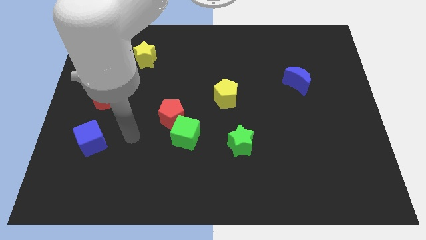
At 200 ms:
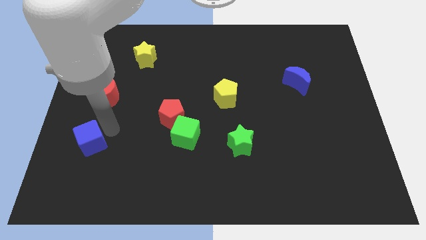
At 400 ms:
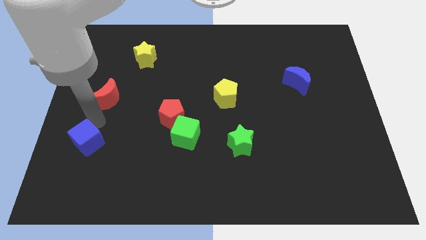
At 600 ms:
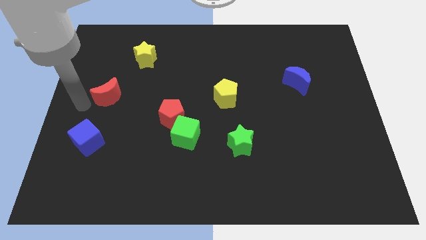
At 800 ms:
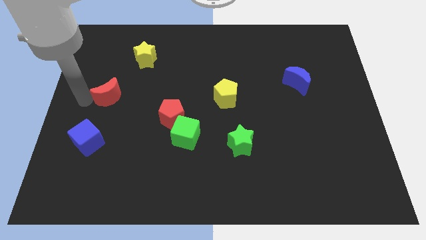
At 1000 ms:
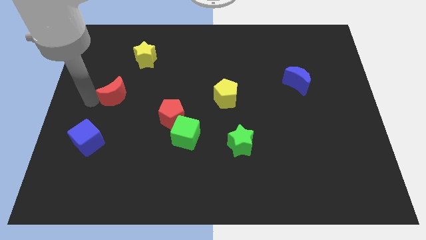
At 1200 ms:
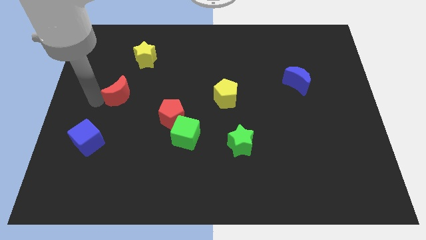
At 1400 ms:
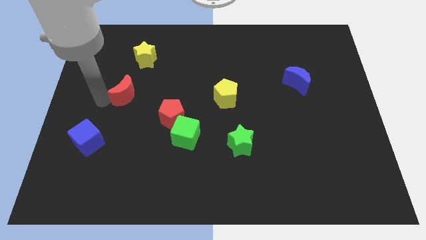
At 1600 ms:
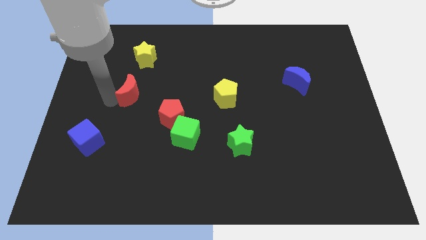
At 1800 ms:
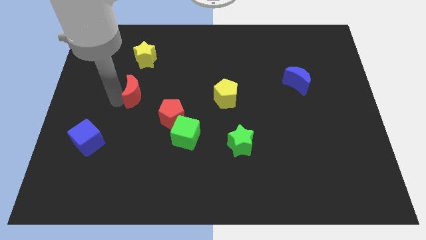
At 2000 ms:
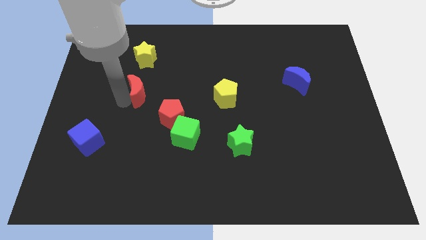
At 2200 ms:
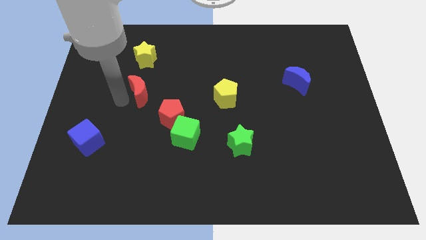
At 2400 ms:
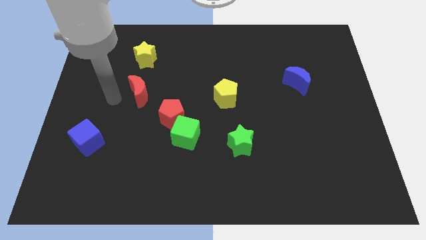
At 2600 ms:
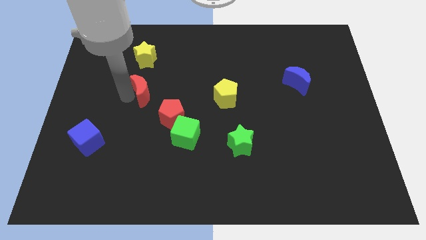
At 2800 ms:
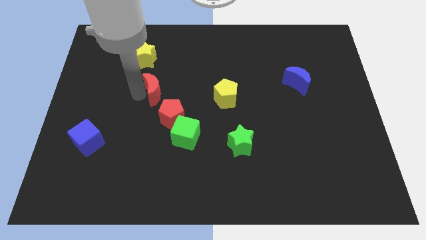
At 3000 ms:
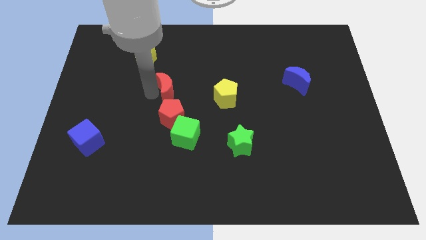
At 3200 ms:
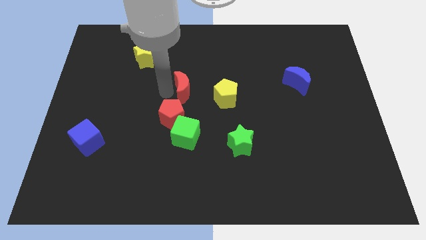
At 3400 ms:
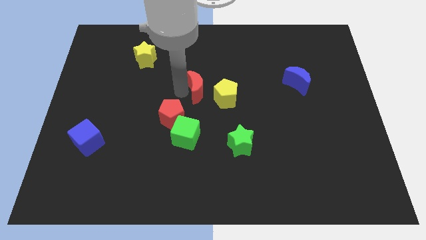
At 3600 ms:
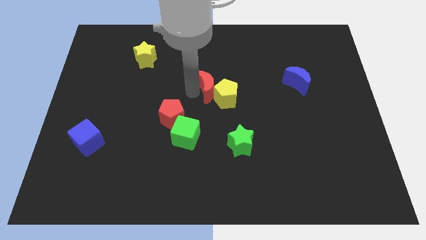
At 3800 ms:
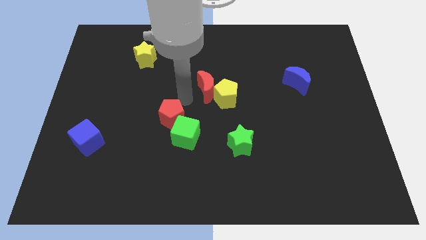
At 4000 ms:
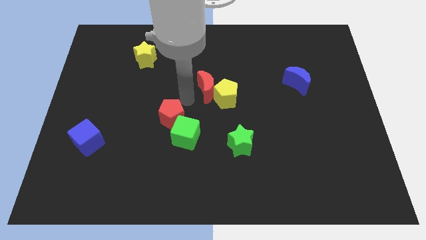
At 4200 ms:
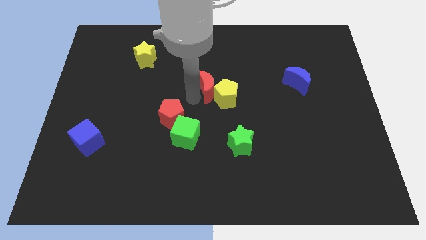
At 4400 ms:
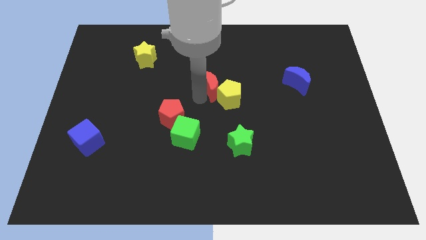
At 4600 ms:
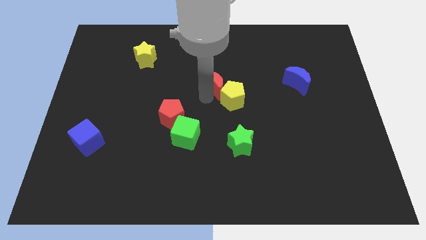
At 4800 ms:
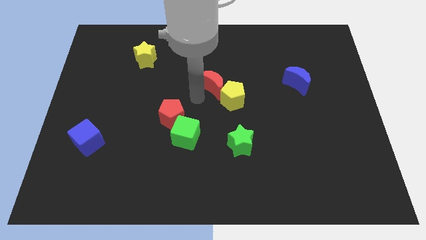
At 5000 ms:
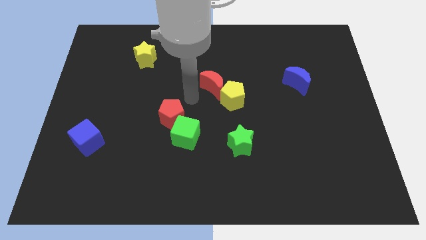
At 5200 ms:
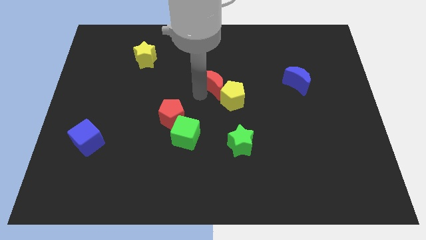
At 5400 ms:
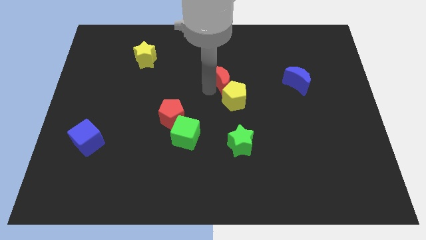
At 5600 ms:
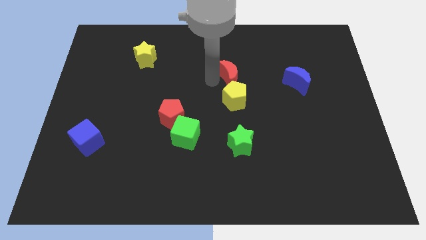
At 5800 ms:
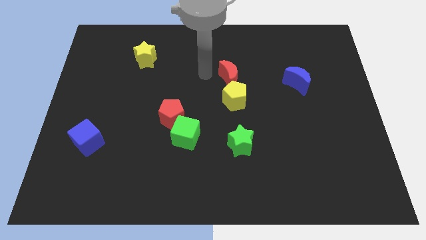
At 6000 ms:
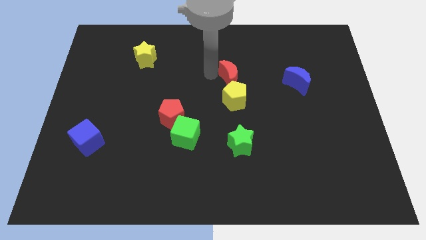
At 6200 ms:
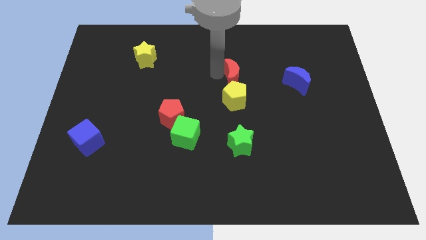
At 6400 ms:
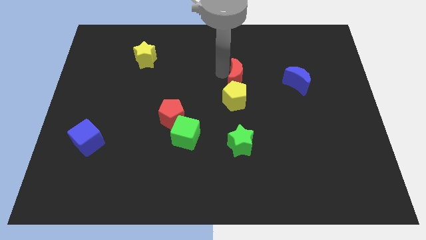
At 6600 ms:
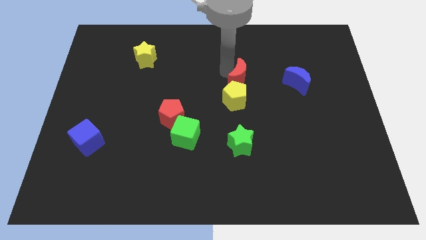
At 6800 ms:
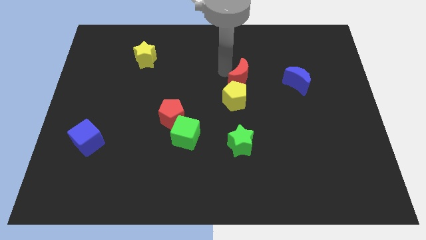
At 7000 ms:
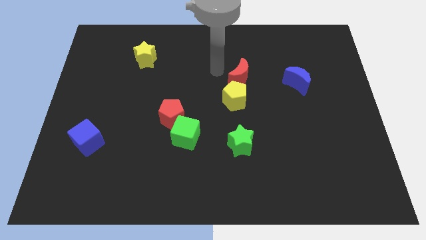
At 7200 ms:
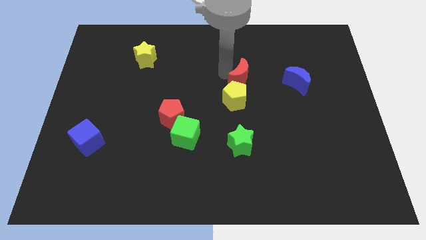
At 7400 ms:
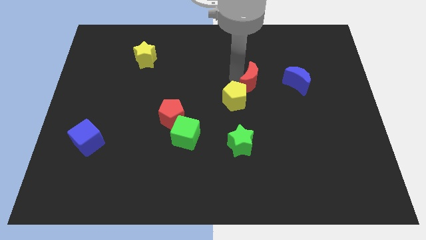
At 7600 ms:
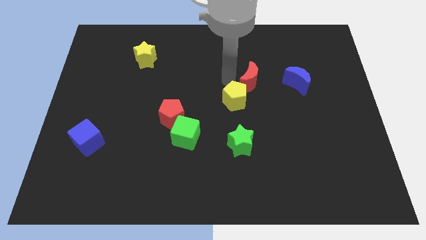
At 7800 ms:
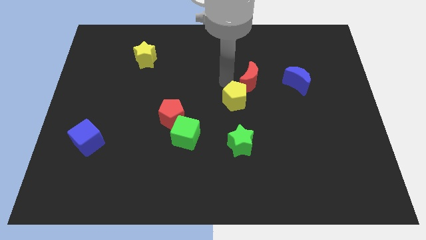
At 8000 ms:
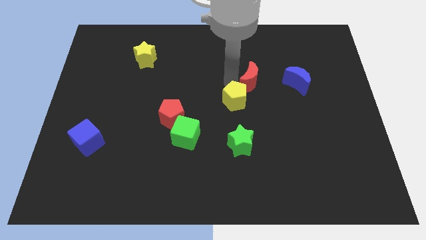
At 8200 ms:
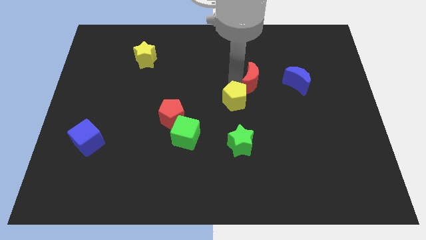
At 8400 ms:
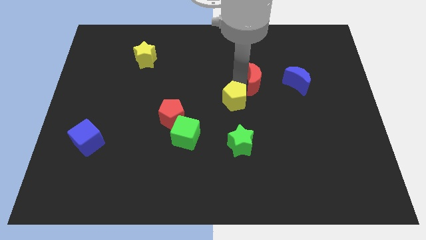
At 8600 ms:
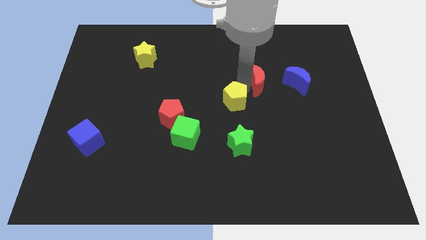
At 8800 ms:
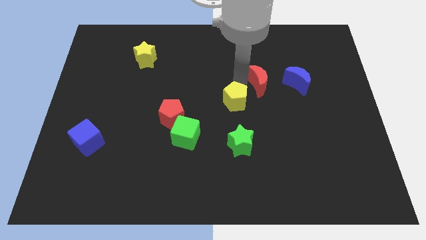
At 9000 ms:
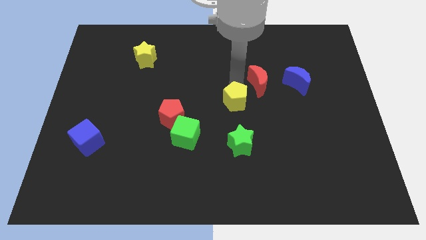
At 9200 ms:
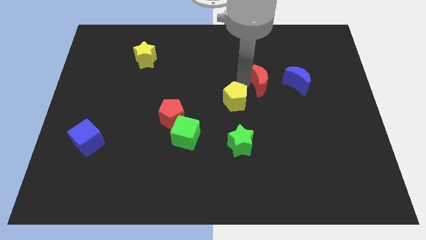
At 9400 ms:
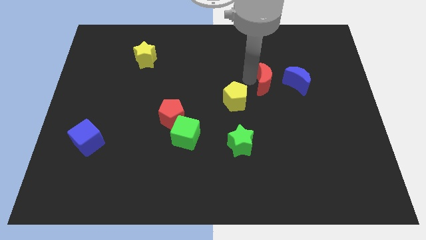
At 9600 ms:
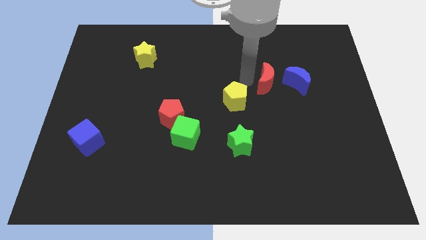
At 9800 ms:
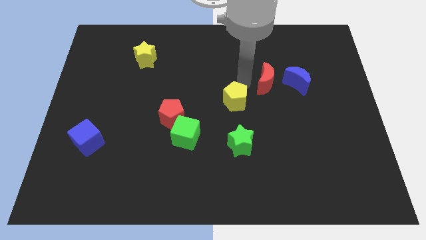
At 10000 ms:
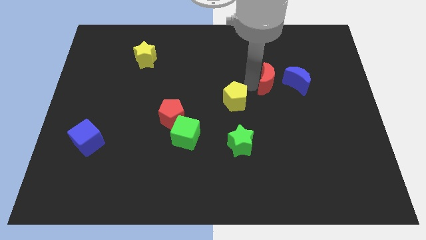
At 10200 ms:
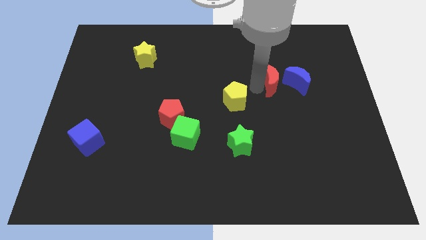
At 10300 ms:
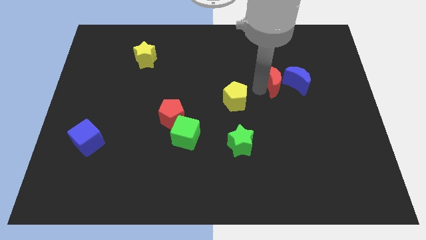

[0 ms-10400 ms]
move the red moon towards the blue moon

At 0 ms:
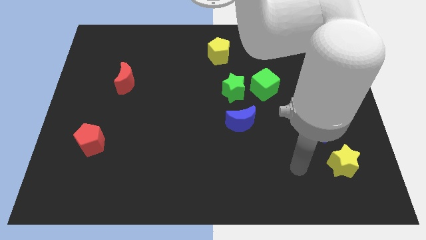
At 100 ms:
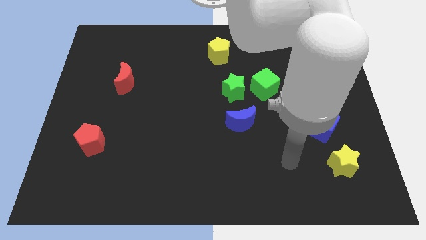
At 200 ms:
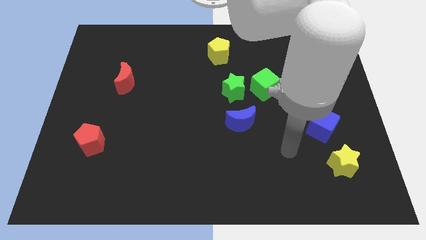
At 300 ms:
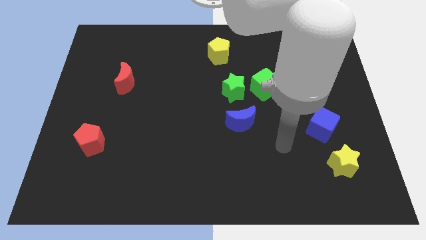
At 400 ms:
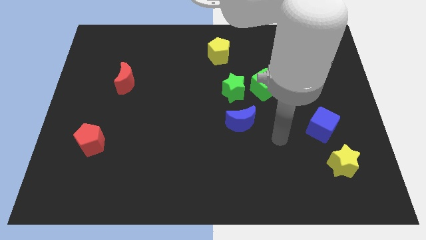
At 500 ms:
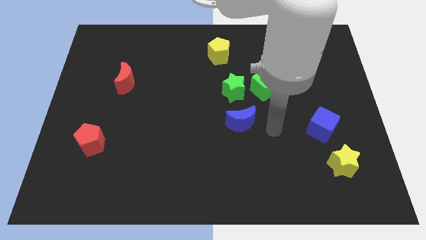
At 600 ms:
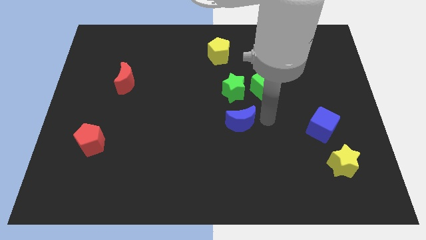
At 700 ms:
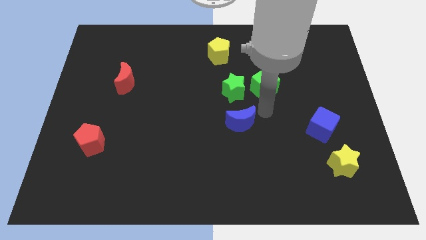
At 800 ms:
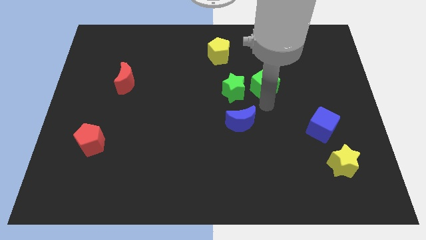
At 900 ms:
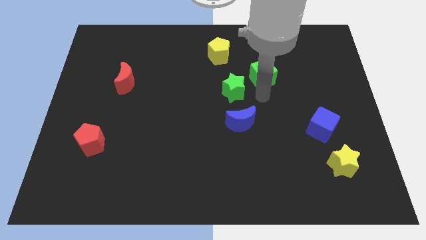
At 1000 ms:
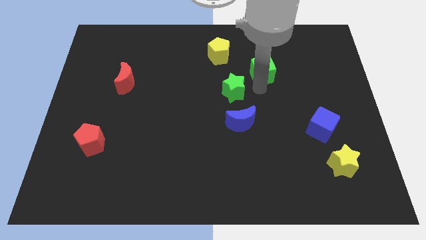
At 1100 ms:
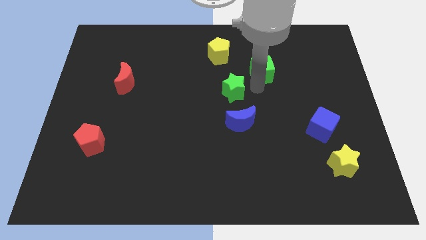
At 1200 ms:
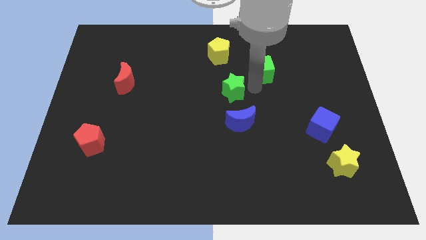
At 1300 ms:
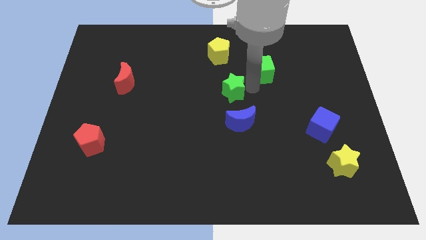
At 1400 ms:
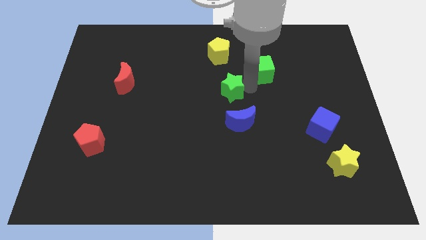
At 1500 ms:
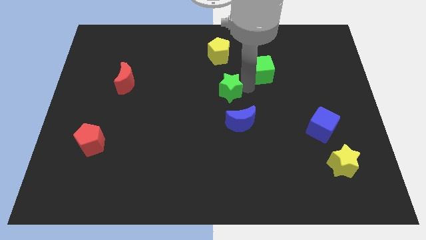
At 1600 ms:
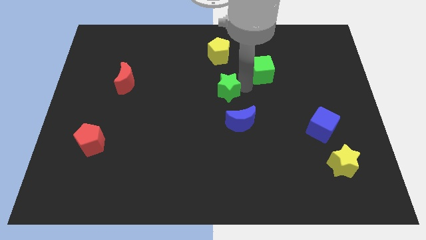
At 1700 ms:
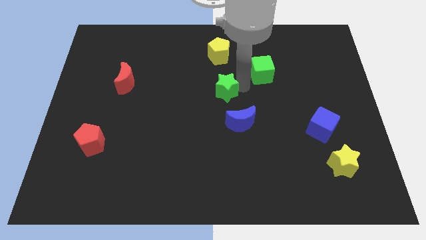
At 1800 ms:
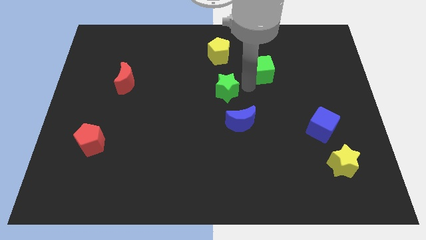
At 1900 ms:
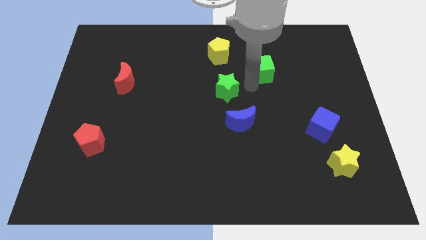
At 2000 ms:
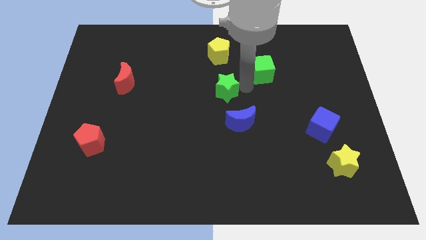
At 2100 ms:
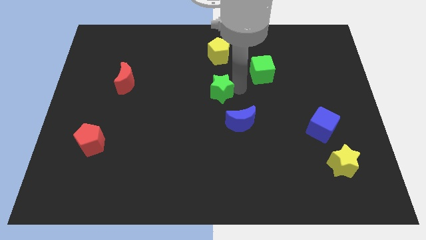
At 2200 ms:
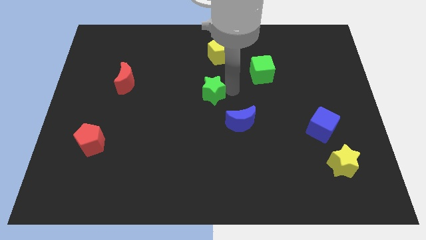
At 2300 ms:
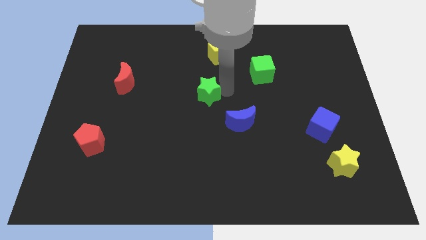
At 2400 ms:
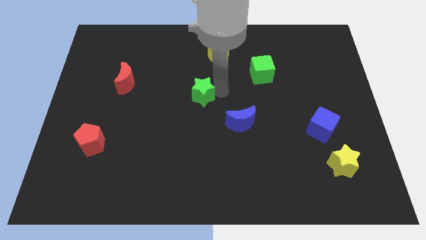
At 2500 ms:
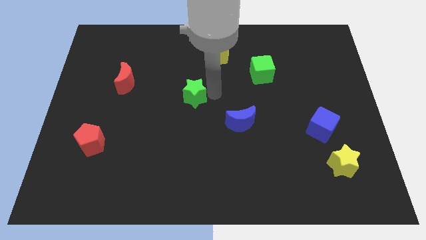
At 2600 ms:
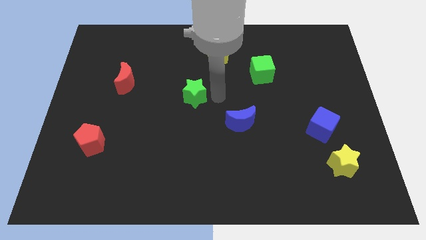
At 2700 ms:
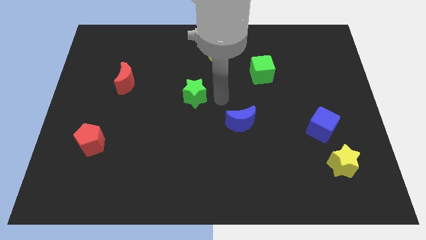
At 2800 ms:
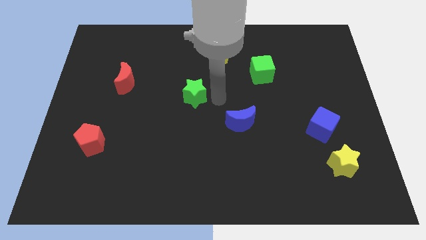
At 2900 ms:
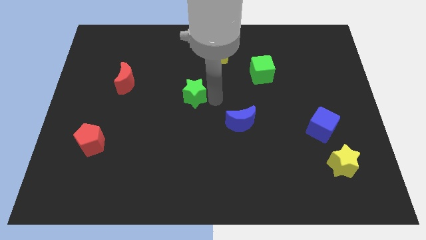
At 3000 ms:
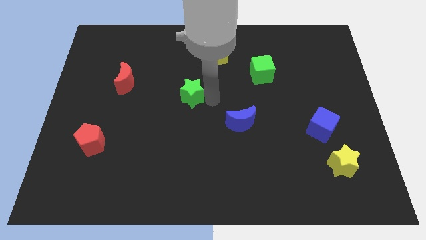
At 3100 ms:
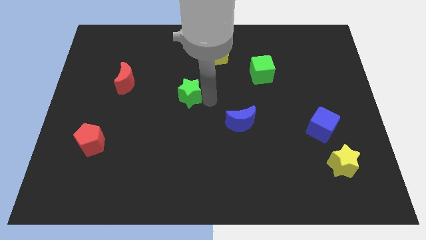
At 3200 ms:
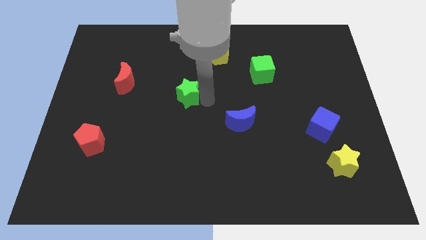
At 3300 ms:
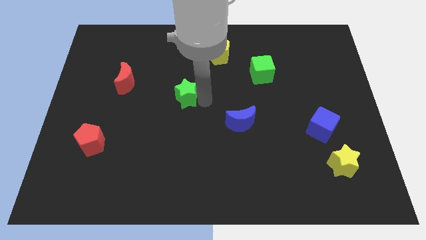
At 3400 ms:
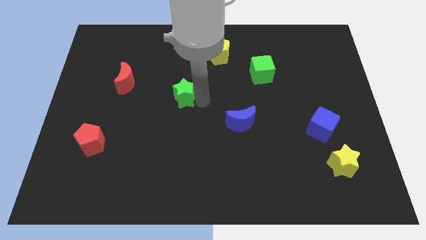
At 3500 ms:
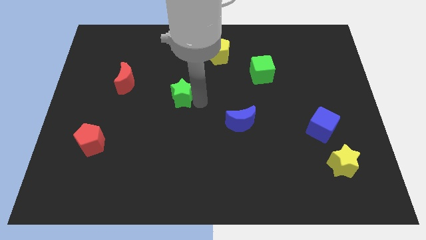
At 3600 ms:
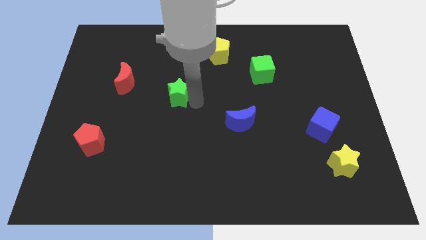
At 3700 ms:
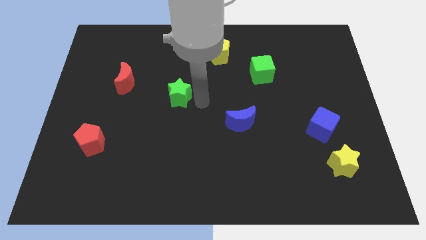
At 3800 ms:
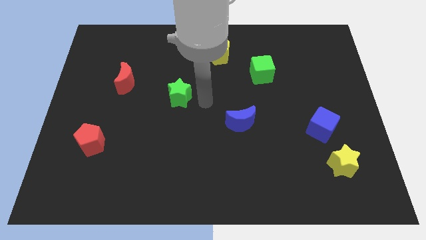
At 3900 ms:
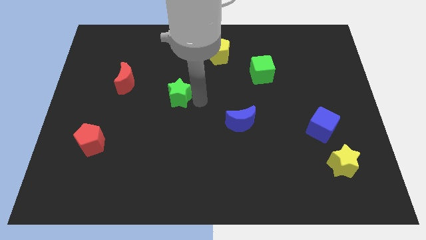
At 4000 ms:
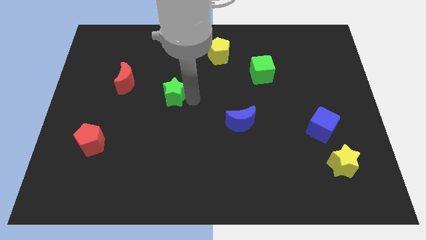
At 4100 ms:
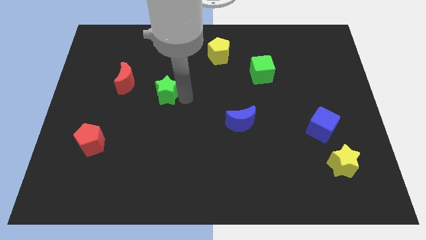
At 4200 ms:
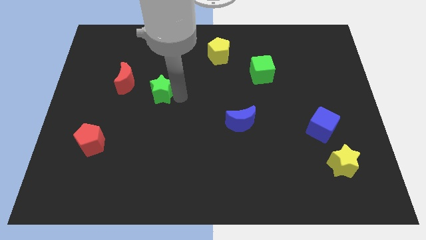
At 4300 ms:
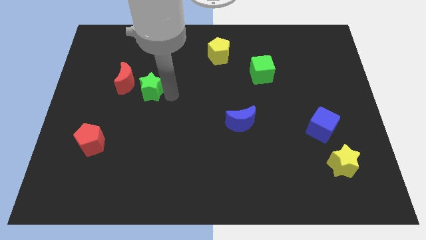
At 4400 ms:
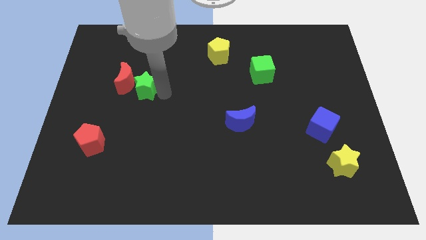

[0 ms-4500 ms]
move the green star to the red moon
